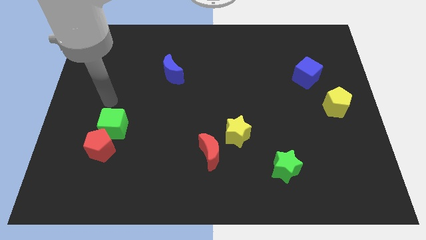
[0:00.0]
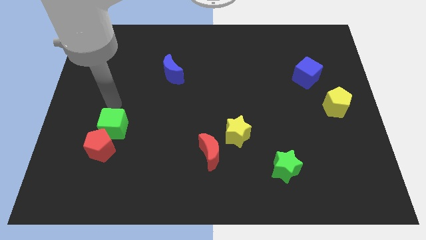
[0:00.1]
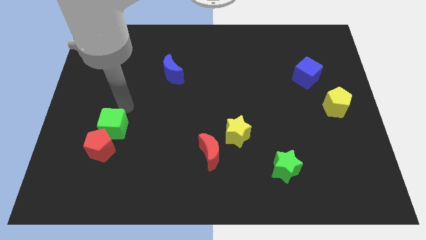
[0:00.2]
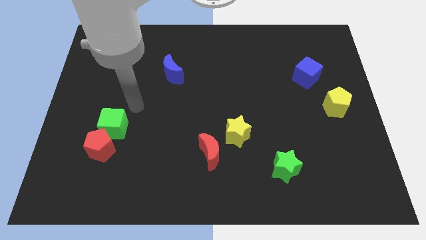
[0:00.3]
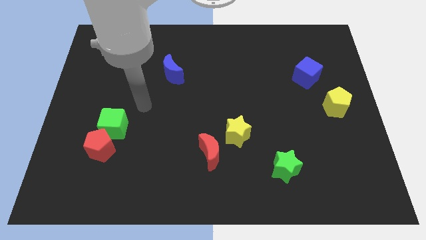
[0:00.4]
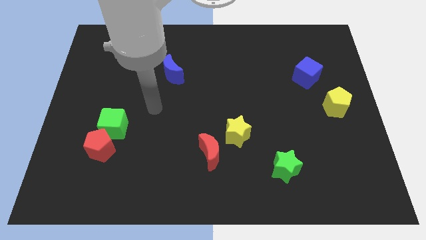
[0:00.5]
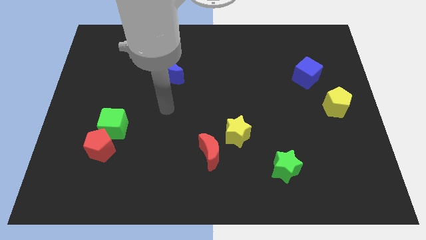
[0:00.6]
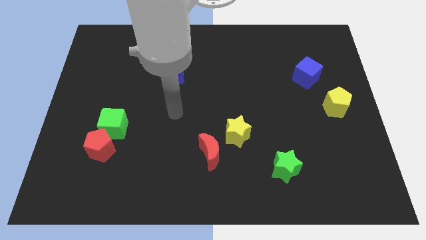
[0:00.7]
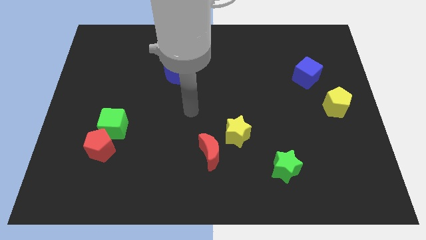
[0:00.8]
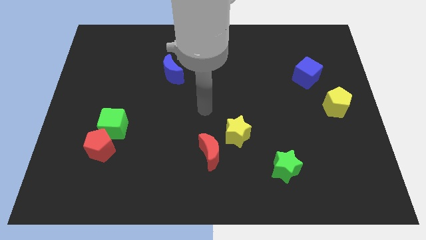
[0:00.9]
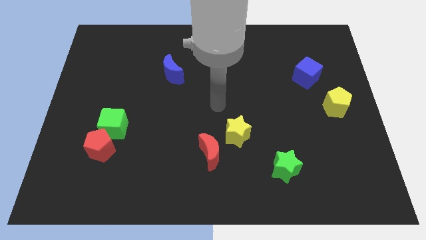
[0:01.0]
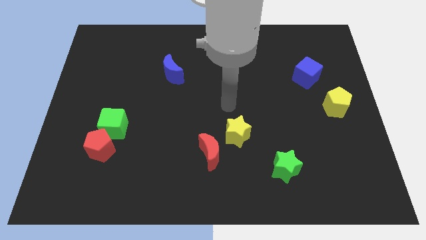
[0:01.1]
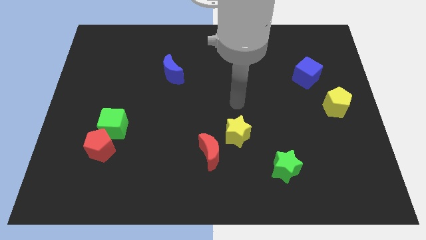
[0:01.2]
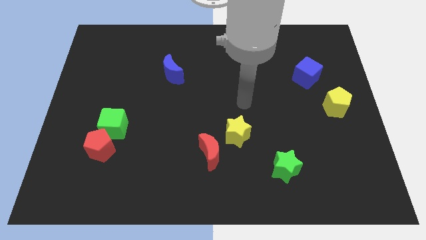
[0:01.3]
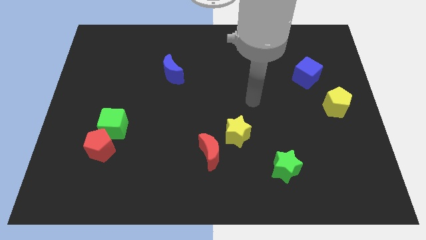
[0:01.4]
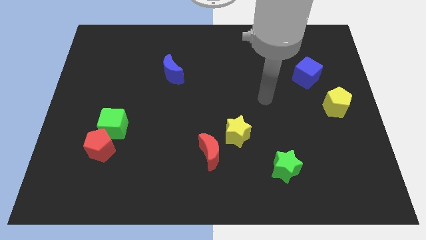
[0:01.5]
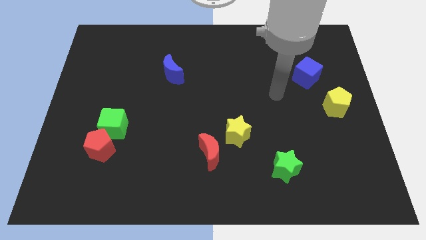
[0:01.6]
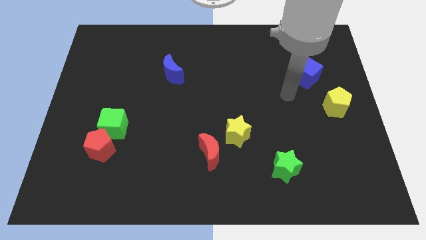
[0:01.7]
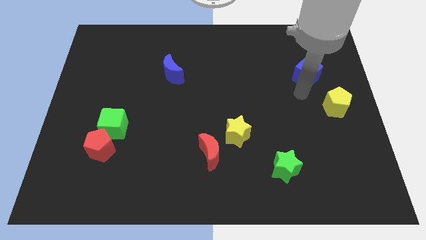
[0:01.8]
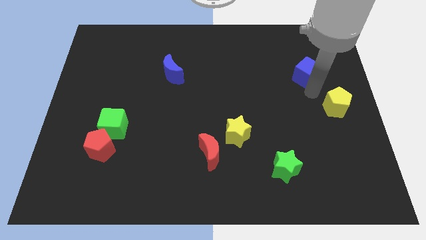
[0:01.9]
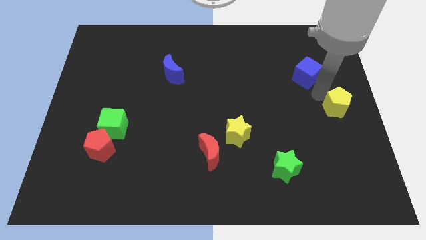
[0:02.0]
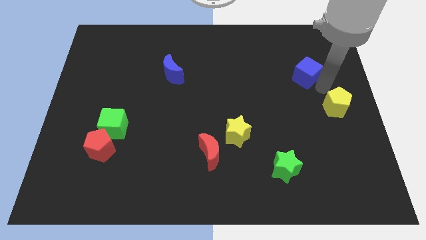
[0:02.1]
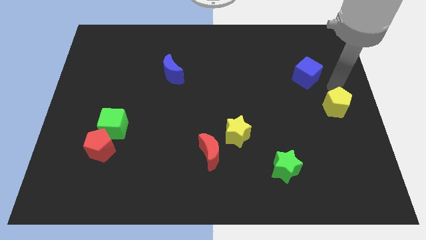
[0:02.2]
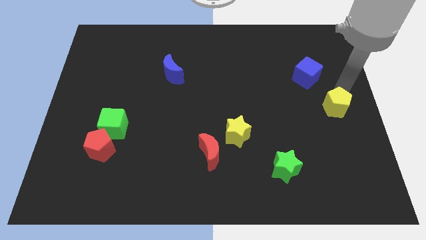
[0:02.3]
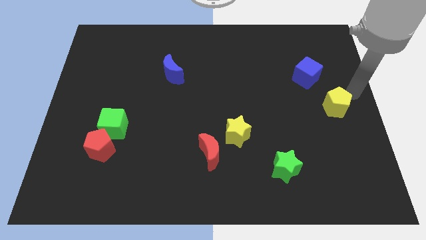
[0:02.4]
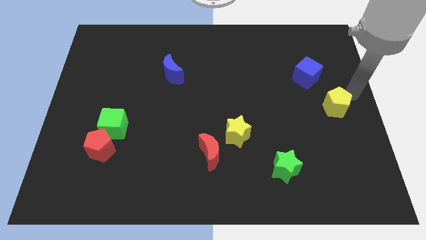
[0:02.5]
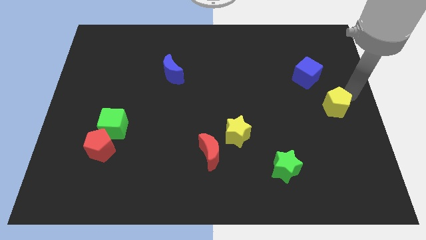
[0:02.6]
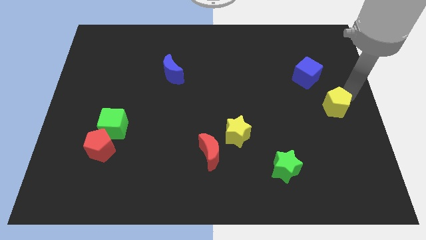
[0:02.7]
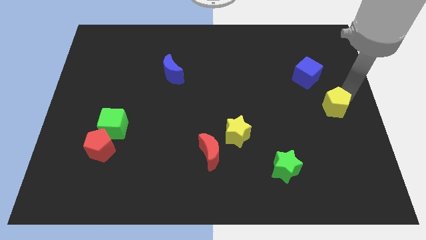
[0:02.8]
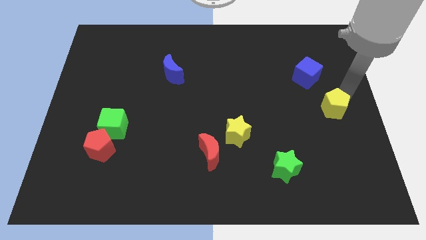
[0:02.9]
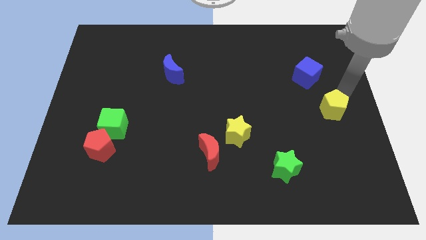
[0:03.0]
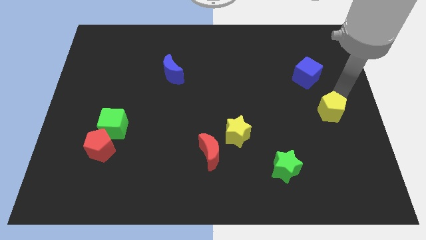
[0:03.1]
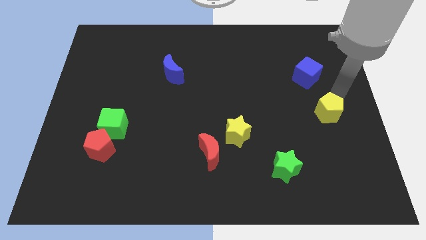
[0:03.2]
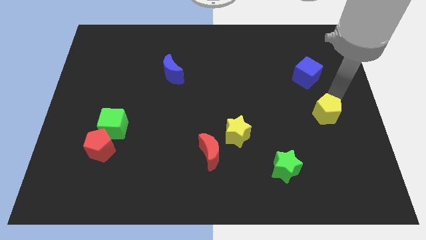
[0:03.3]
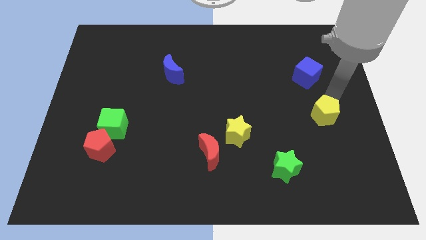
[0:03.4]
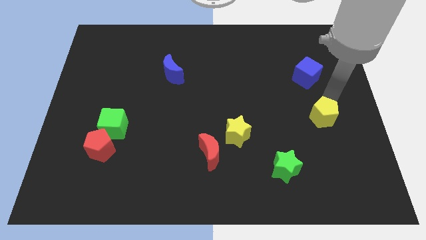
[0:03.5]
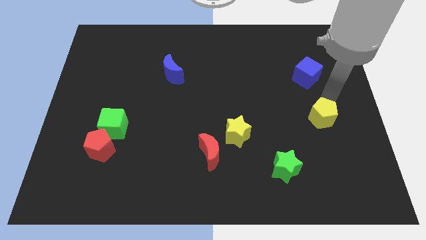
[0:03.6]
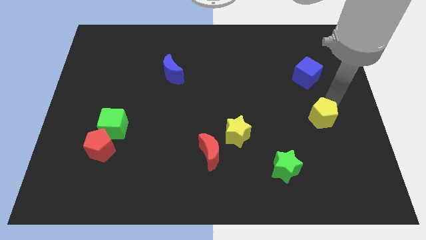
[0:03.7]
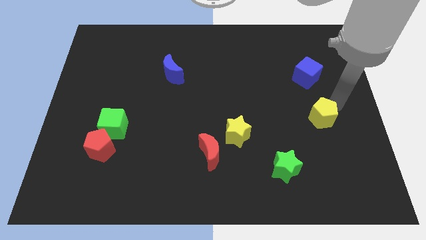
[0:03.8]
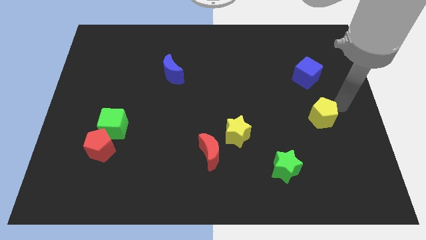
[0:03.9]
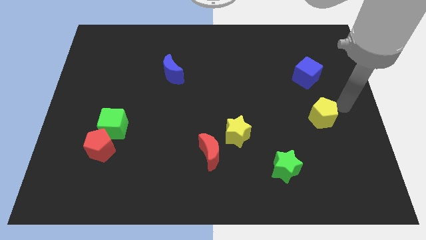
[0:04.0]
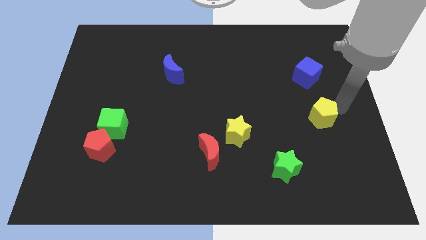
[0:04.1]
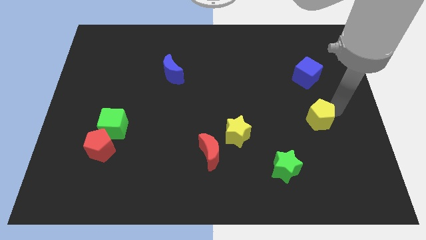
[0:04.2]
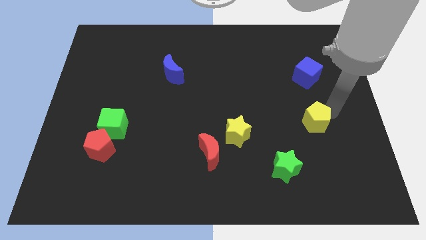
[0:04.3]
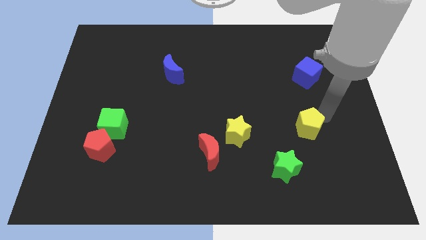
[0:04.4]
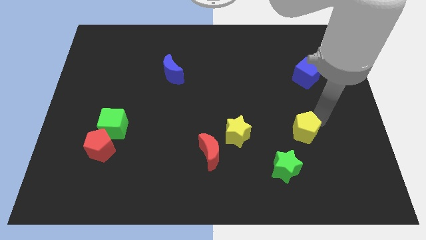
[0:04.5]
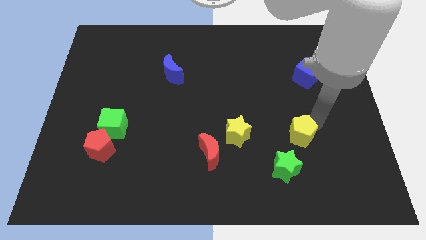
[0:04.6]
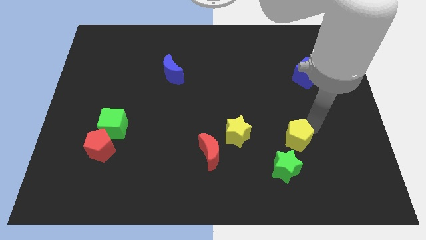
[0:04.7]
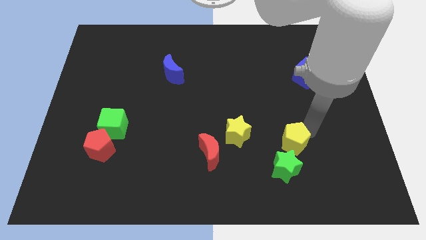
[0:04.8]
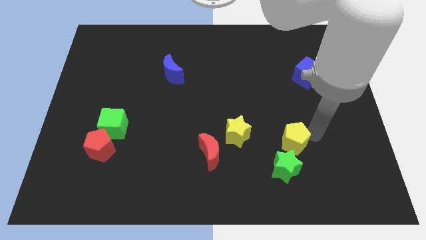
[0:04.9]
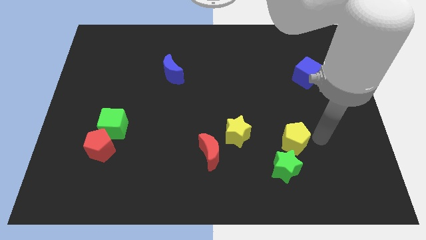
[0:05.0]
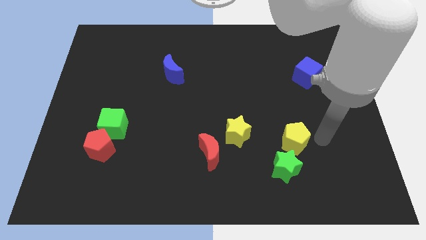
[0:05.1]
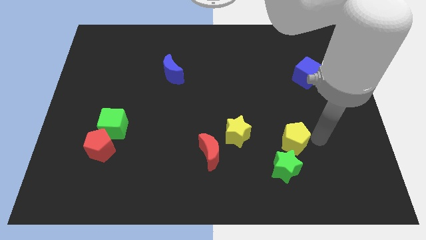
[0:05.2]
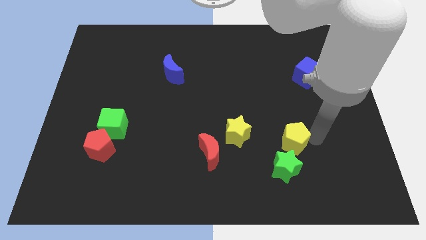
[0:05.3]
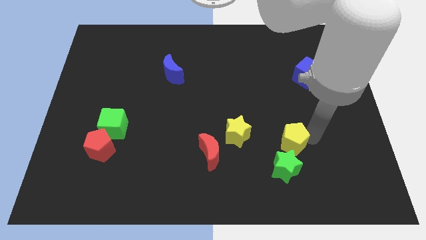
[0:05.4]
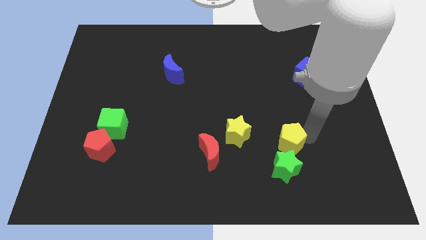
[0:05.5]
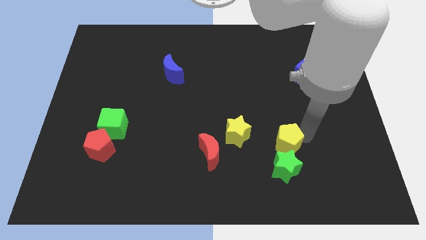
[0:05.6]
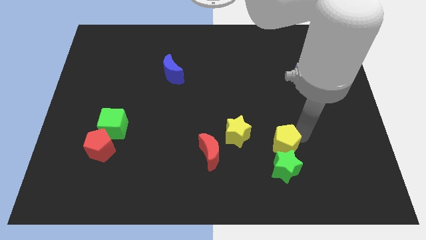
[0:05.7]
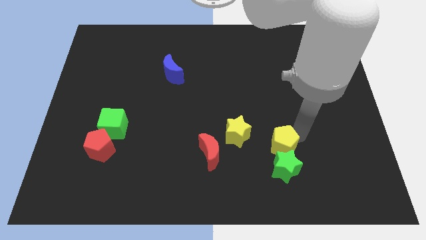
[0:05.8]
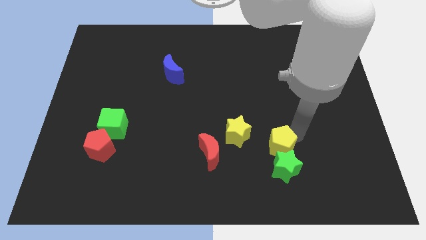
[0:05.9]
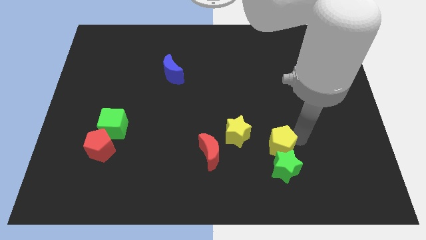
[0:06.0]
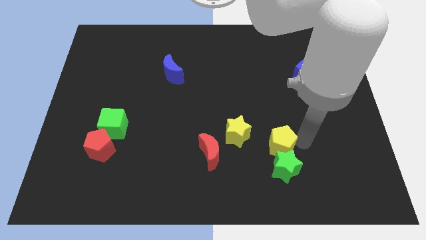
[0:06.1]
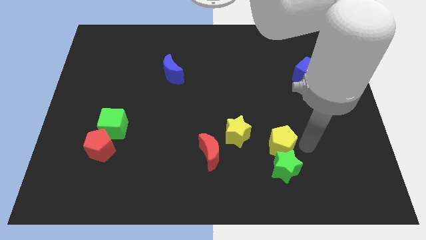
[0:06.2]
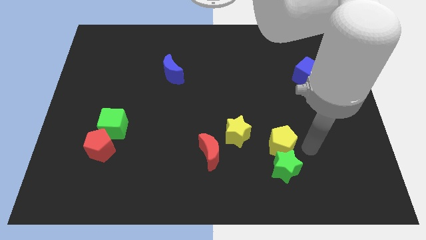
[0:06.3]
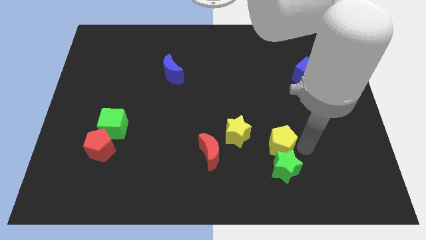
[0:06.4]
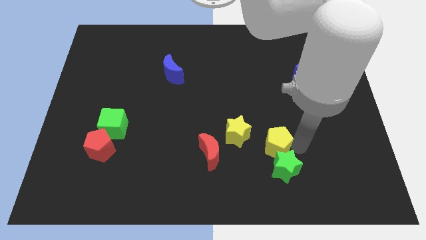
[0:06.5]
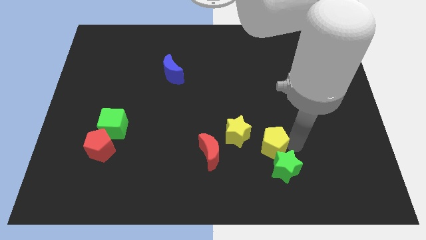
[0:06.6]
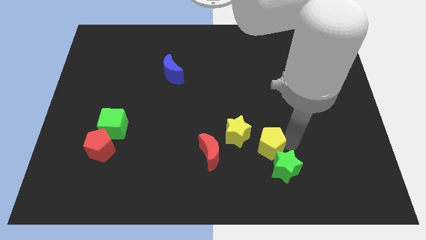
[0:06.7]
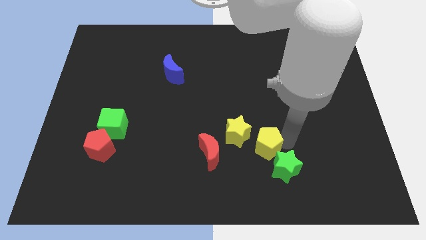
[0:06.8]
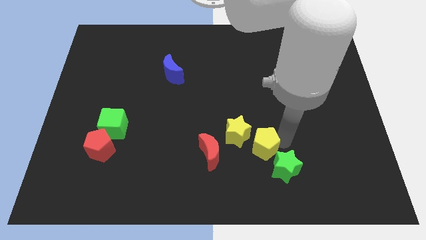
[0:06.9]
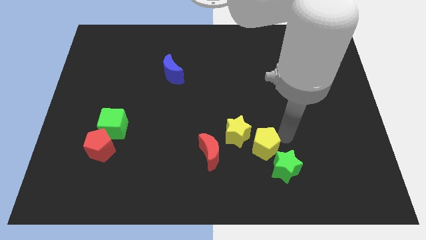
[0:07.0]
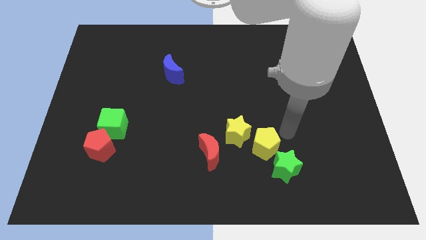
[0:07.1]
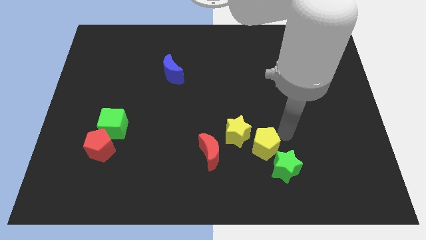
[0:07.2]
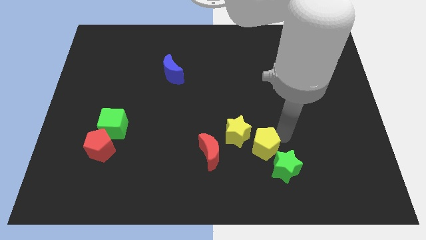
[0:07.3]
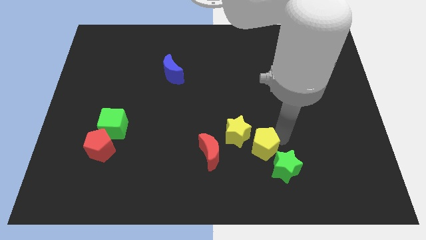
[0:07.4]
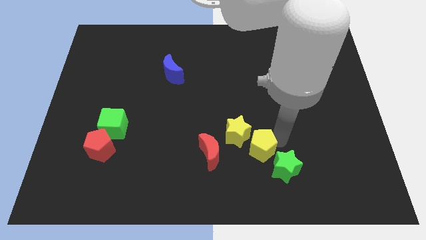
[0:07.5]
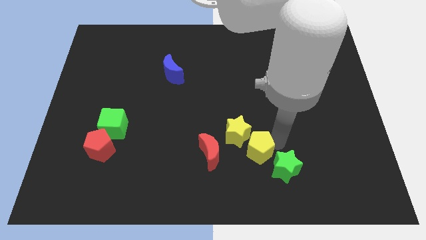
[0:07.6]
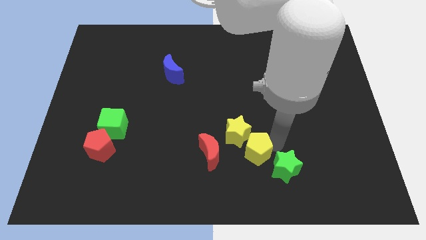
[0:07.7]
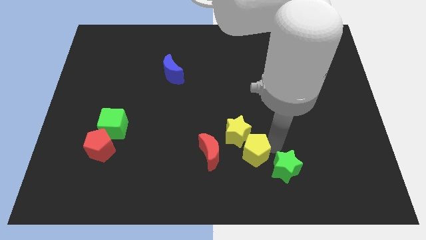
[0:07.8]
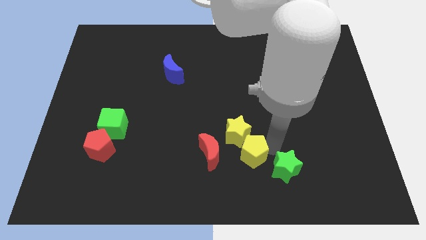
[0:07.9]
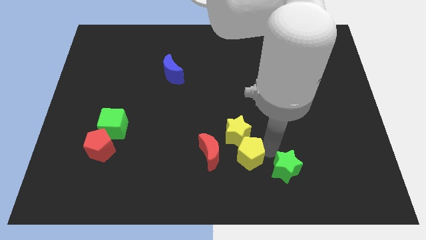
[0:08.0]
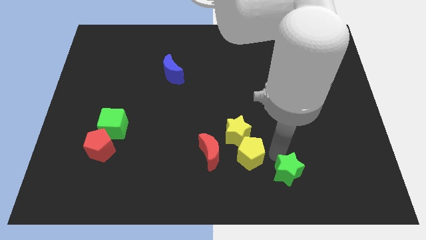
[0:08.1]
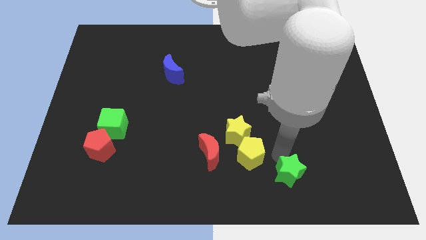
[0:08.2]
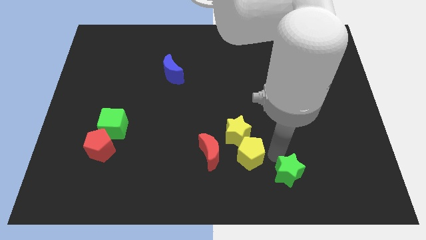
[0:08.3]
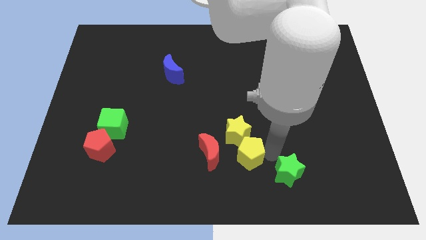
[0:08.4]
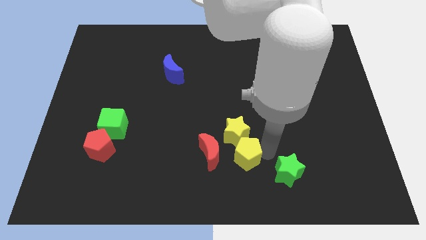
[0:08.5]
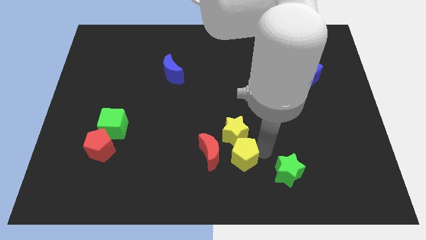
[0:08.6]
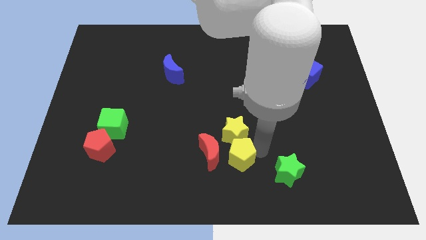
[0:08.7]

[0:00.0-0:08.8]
put the yellow pentagon to the red moon
